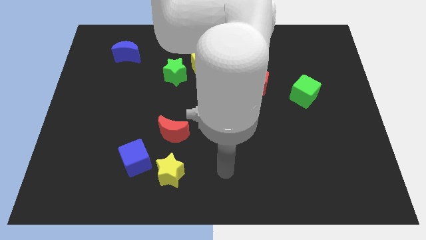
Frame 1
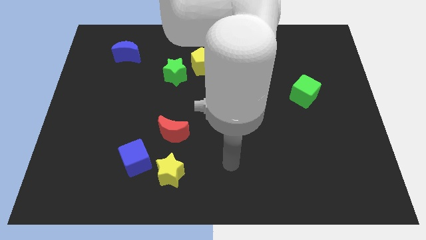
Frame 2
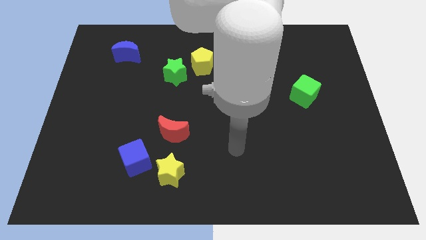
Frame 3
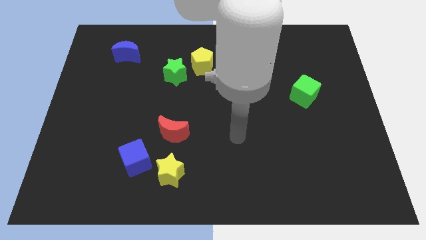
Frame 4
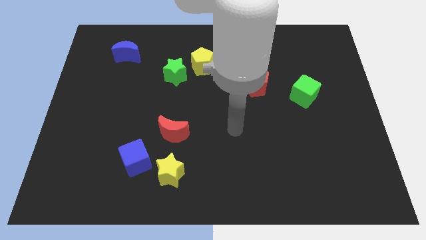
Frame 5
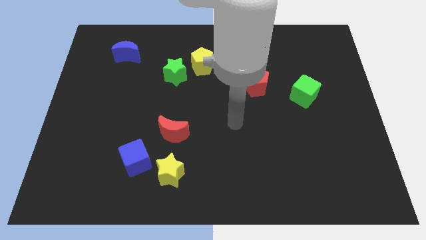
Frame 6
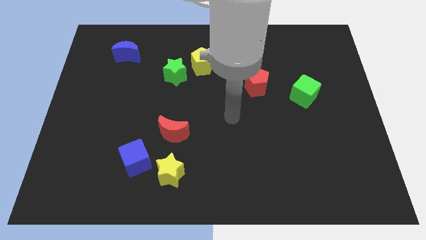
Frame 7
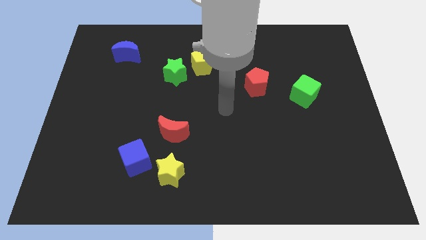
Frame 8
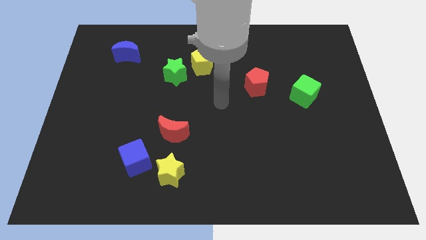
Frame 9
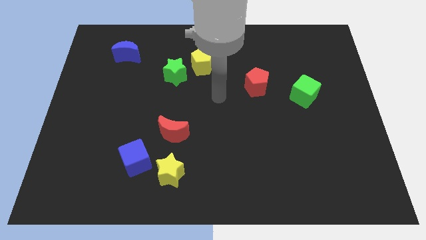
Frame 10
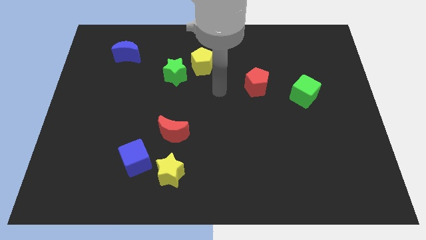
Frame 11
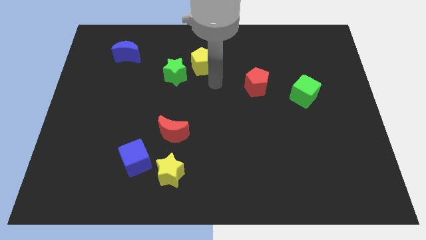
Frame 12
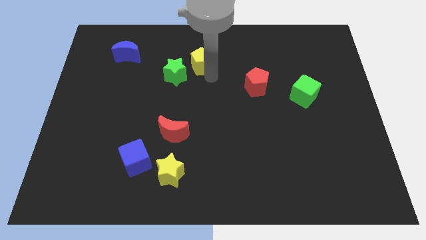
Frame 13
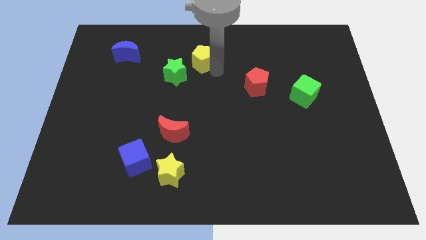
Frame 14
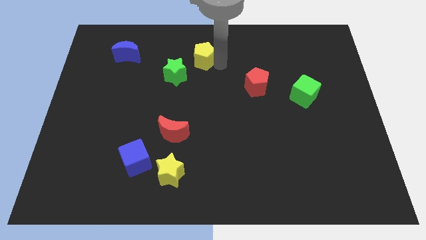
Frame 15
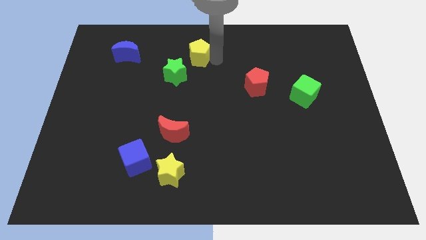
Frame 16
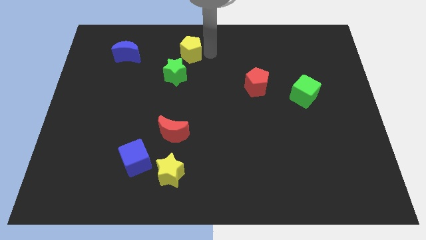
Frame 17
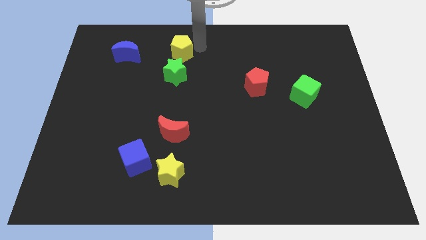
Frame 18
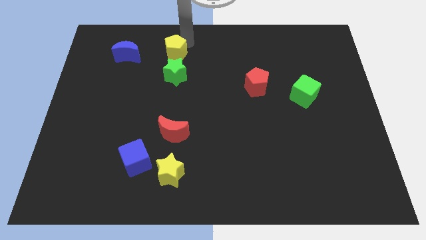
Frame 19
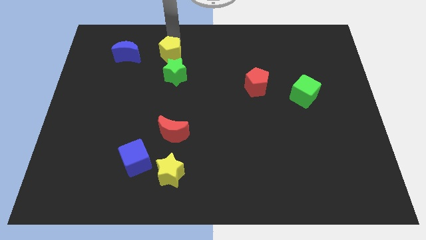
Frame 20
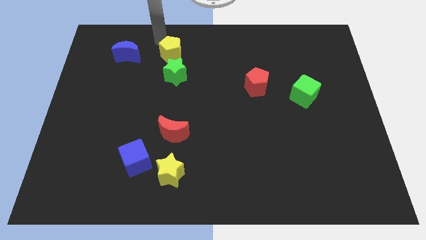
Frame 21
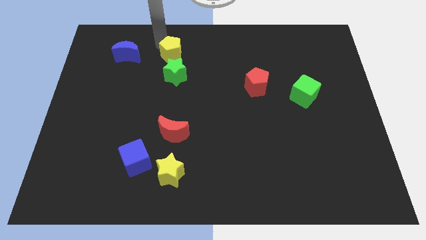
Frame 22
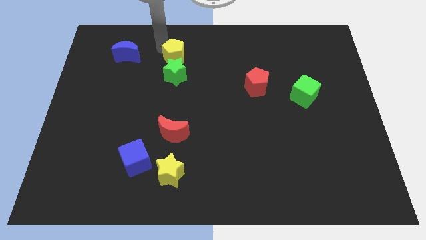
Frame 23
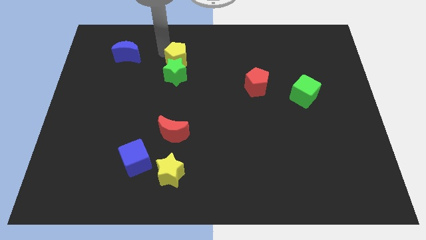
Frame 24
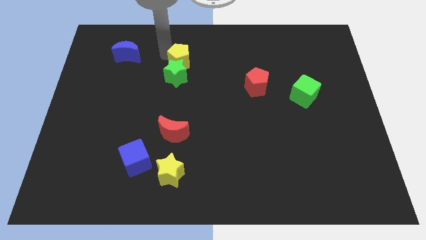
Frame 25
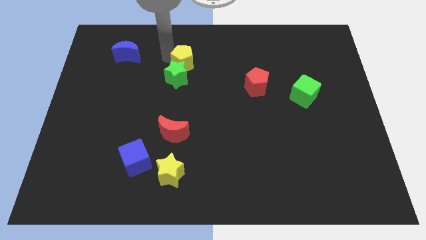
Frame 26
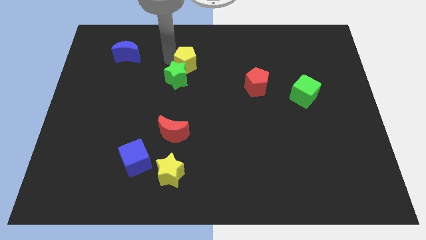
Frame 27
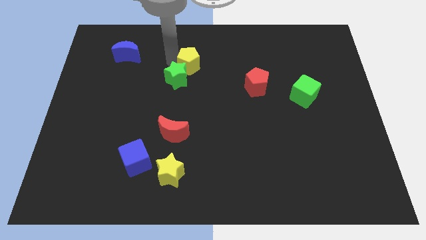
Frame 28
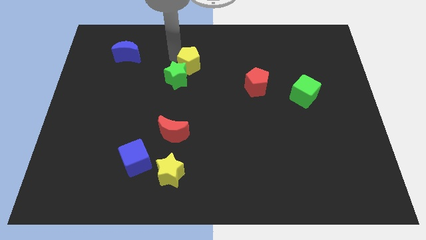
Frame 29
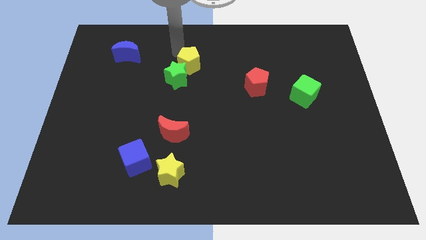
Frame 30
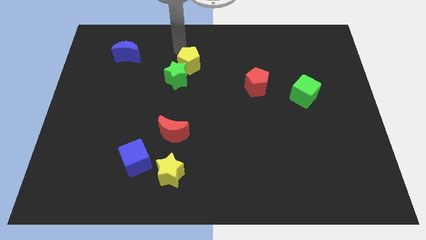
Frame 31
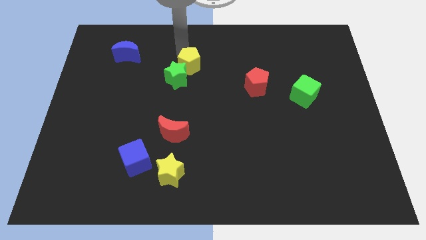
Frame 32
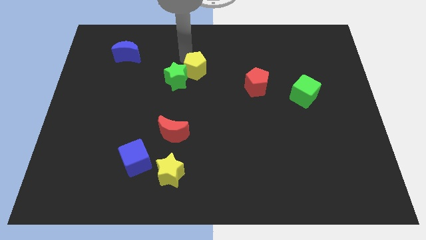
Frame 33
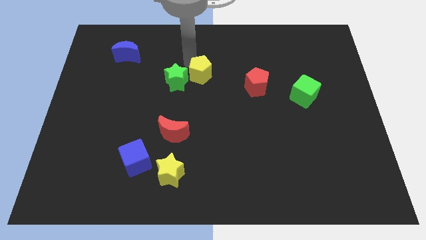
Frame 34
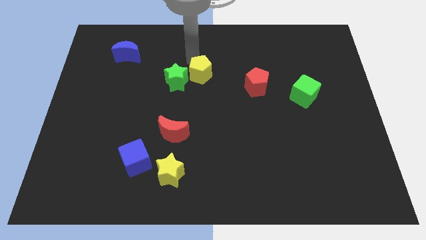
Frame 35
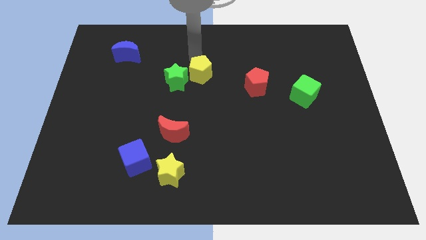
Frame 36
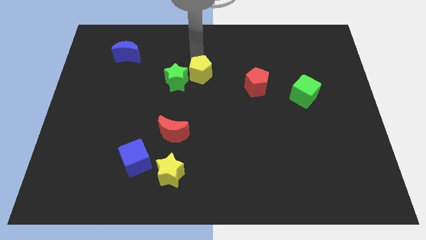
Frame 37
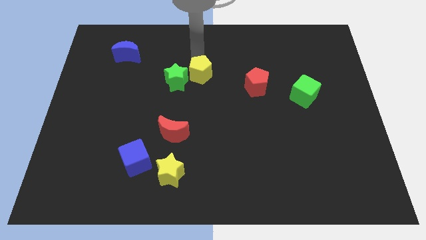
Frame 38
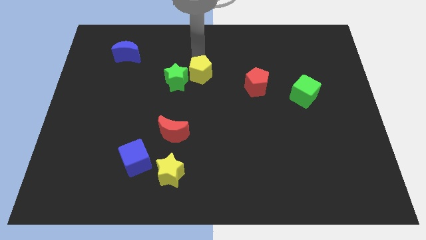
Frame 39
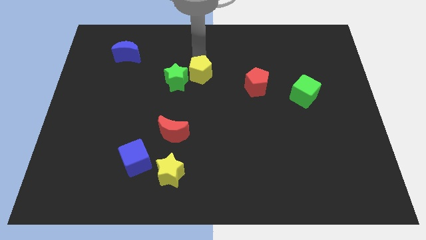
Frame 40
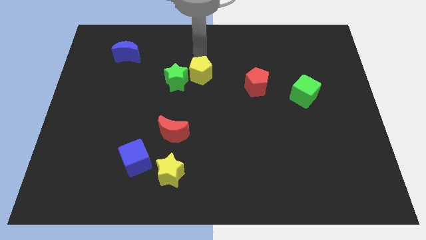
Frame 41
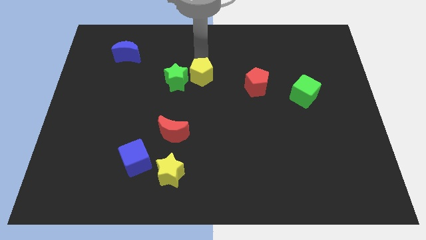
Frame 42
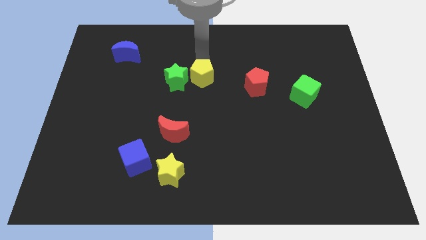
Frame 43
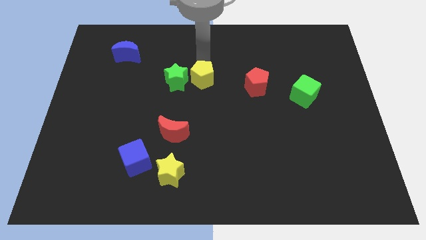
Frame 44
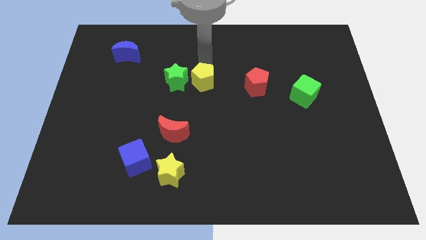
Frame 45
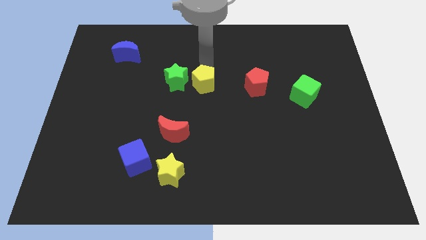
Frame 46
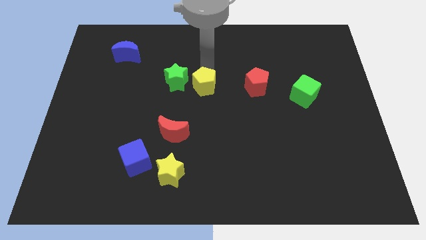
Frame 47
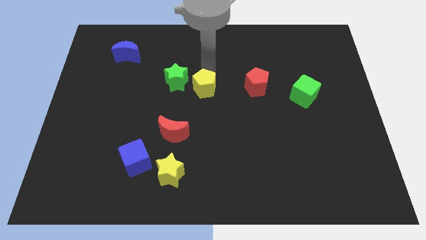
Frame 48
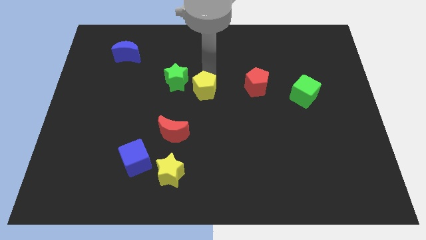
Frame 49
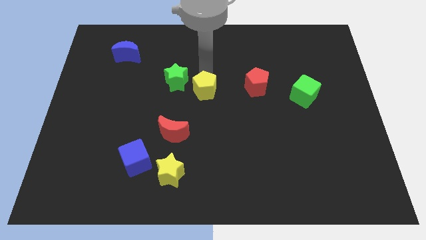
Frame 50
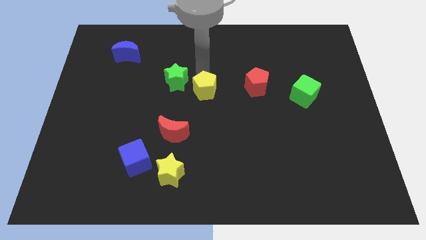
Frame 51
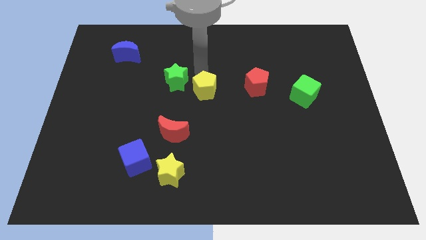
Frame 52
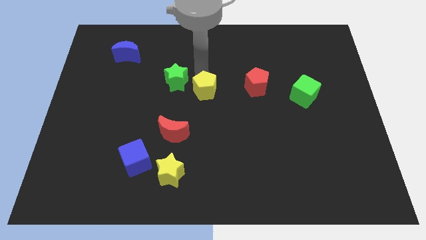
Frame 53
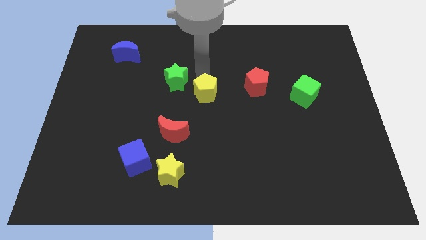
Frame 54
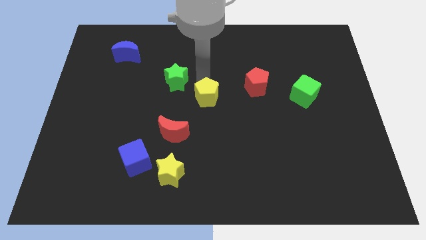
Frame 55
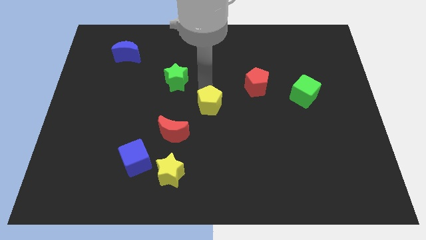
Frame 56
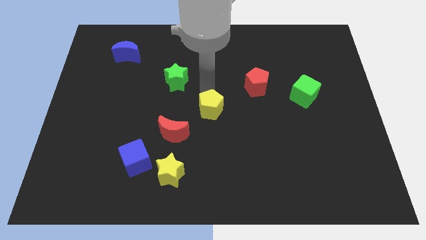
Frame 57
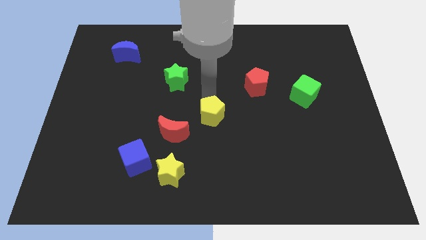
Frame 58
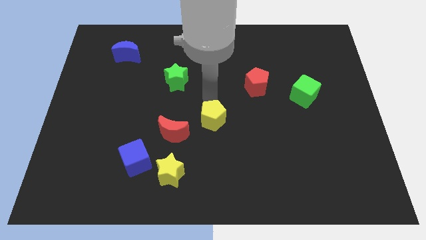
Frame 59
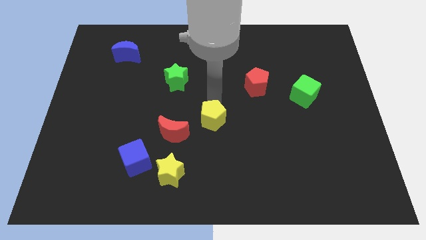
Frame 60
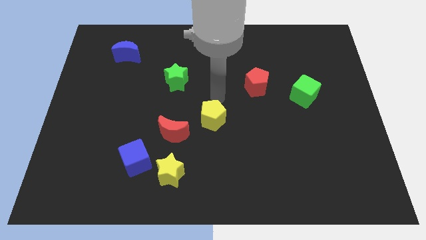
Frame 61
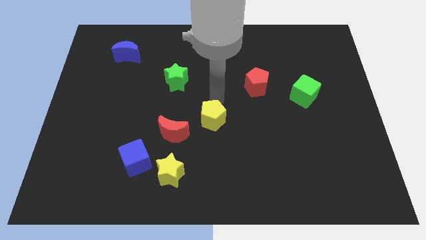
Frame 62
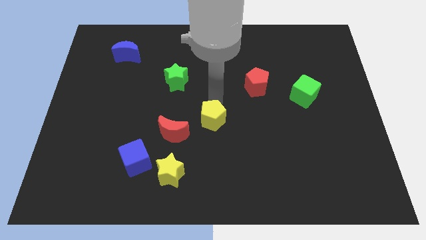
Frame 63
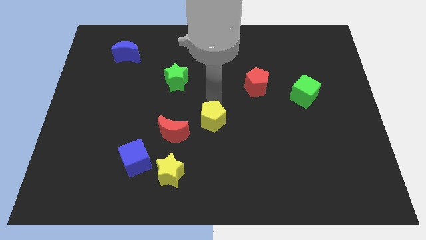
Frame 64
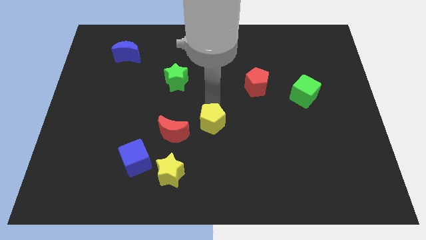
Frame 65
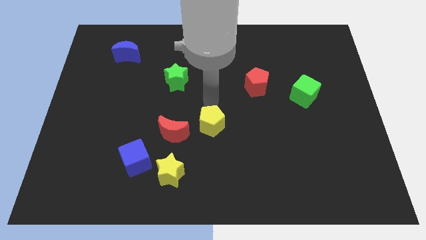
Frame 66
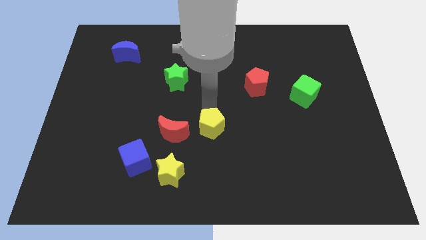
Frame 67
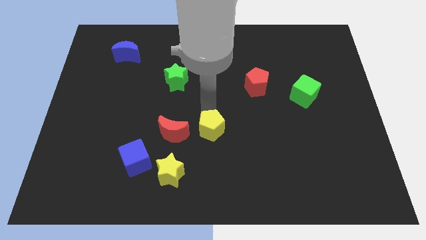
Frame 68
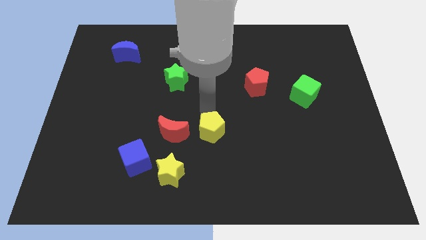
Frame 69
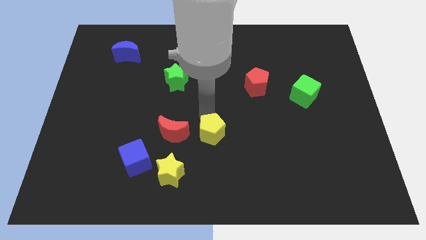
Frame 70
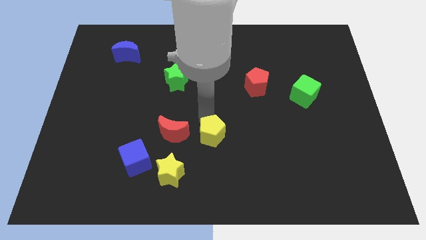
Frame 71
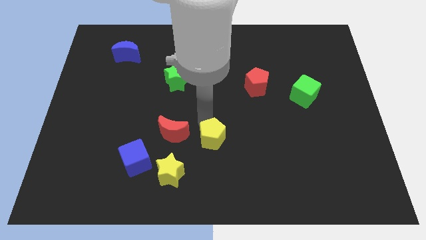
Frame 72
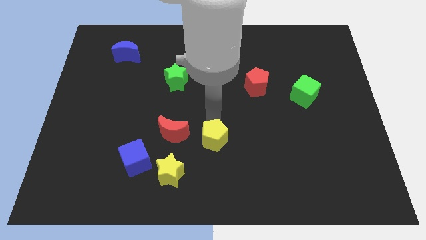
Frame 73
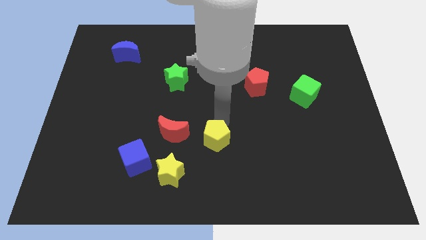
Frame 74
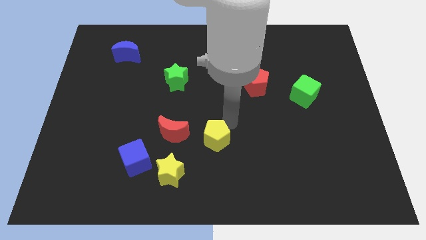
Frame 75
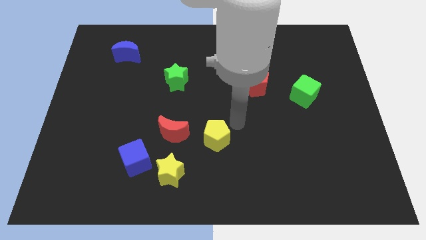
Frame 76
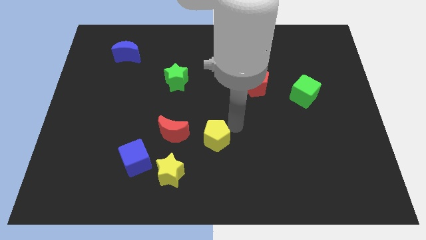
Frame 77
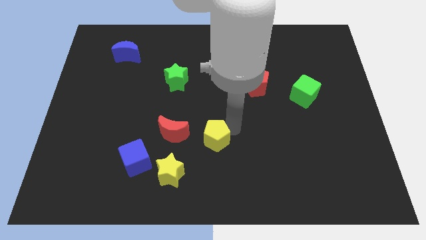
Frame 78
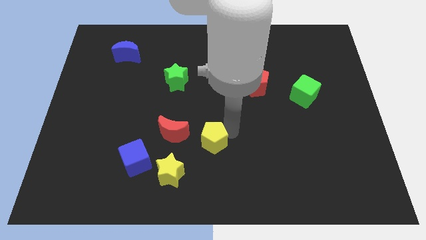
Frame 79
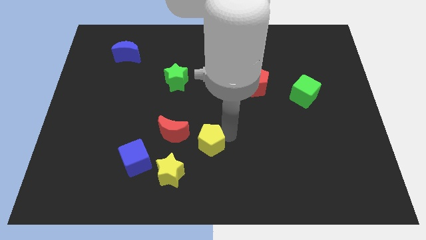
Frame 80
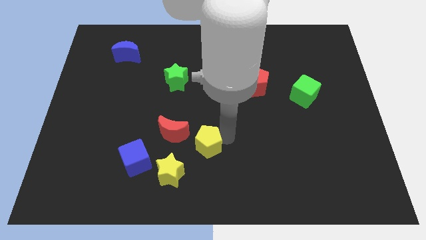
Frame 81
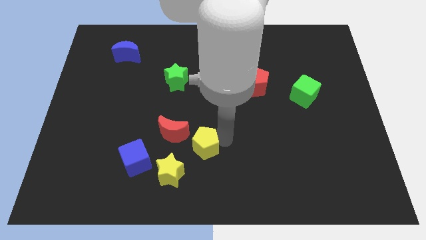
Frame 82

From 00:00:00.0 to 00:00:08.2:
put the yellow pentagon to the right side of the blue cube
